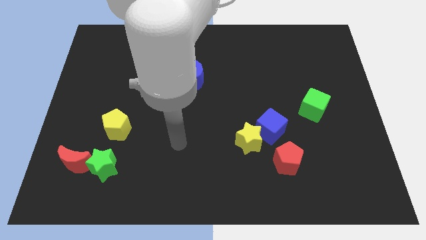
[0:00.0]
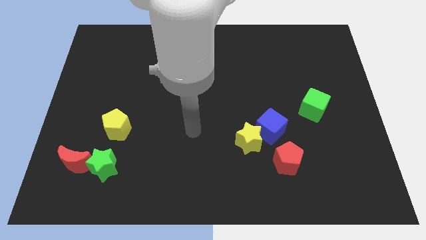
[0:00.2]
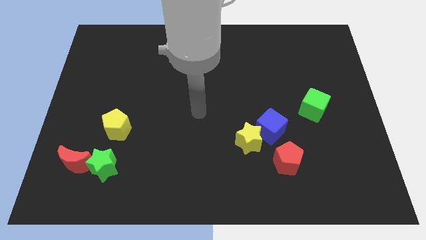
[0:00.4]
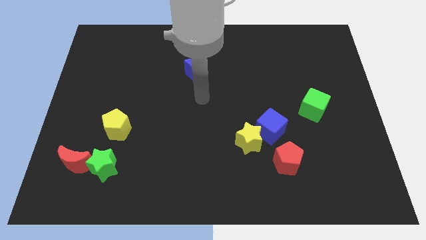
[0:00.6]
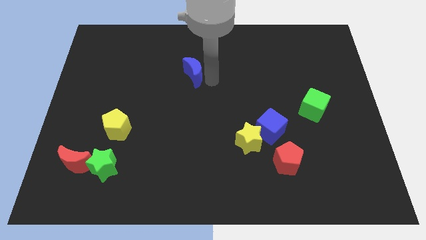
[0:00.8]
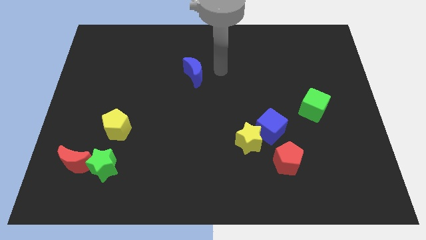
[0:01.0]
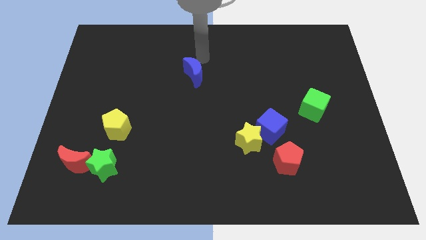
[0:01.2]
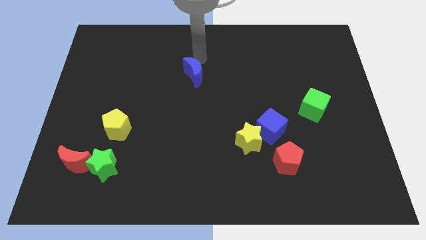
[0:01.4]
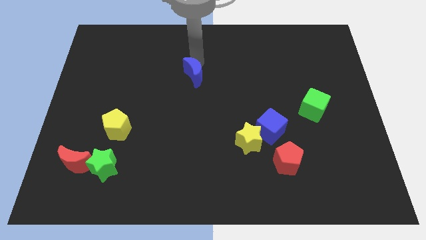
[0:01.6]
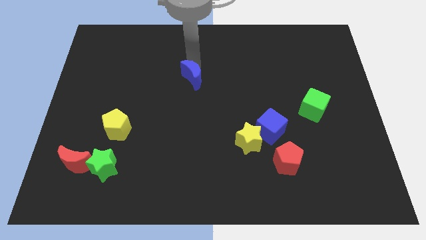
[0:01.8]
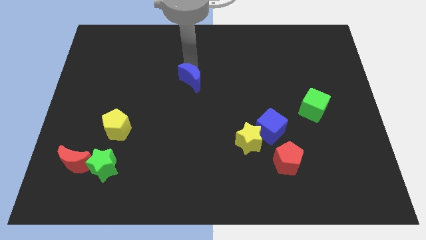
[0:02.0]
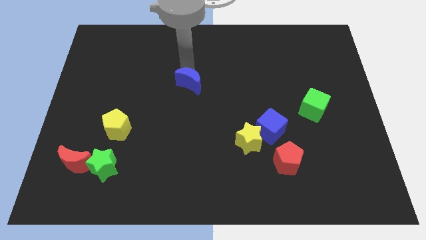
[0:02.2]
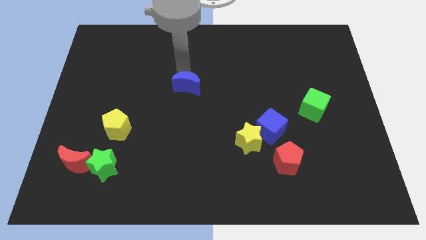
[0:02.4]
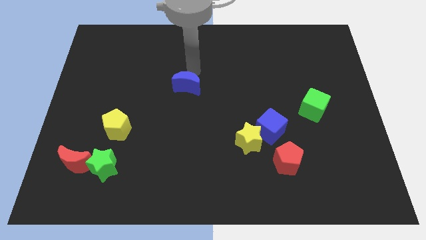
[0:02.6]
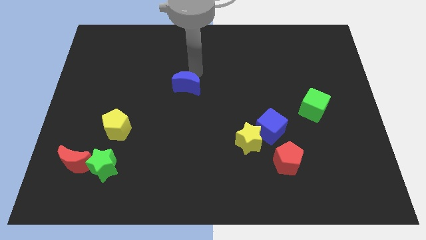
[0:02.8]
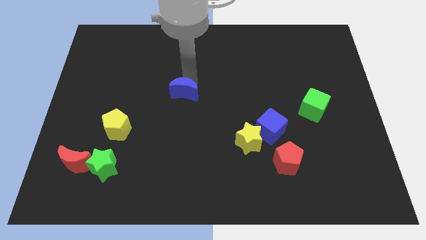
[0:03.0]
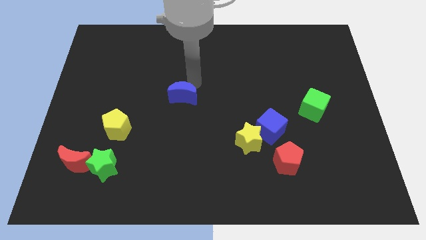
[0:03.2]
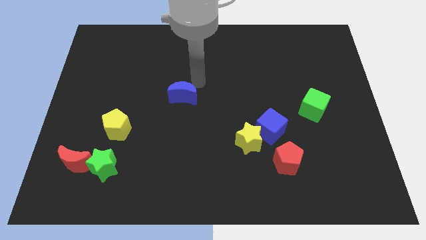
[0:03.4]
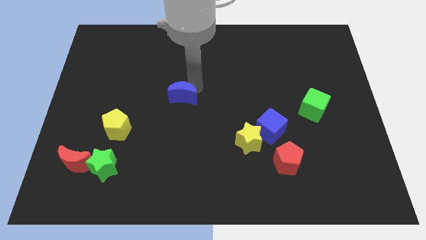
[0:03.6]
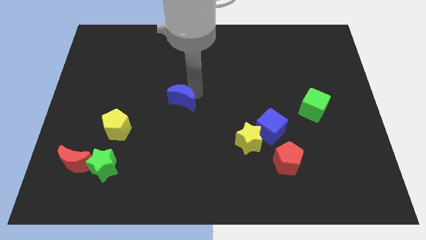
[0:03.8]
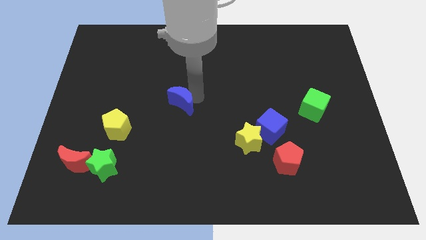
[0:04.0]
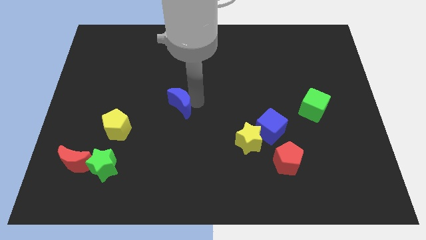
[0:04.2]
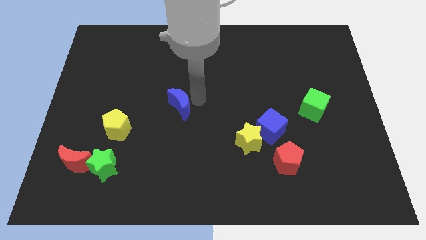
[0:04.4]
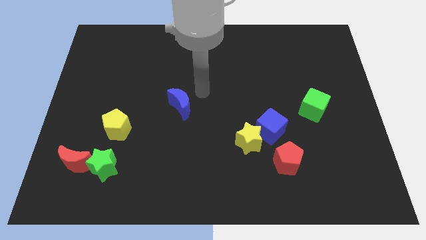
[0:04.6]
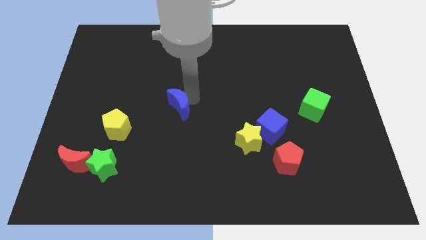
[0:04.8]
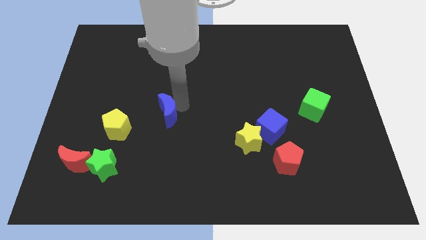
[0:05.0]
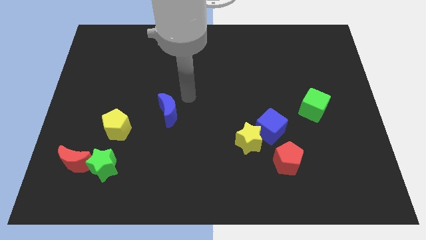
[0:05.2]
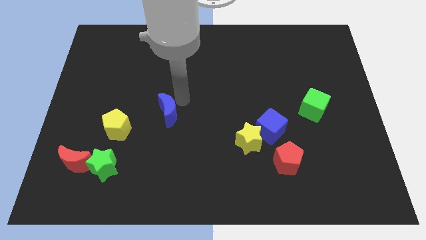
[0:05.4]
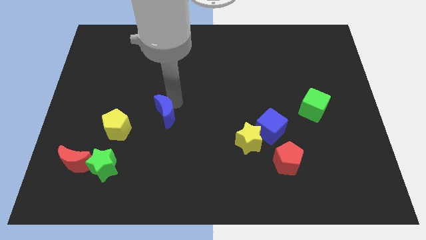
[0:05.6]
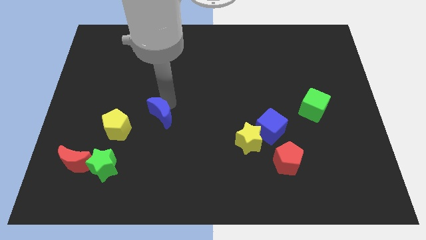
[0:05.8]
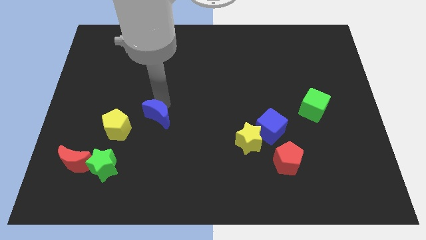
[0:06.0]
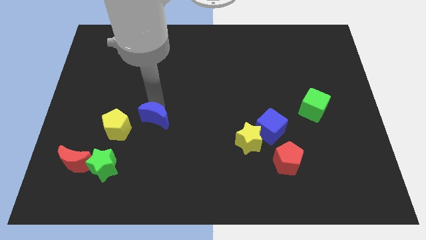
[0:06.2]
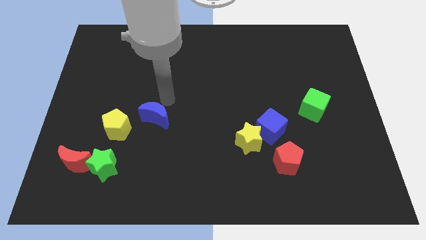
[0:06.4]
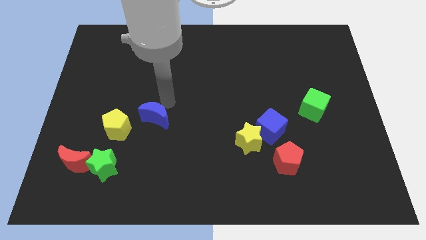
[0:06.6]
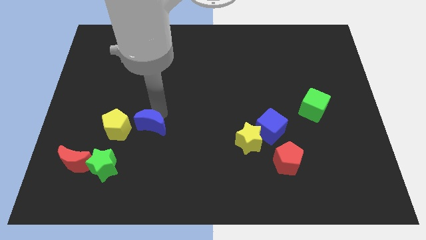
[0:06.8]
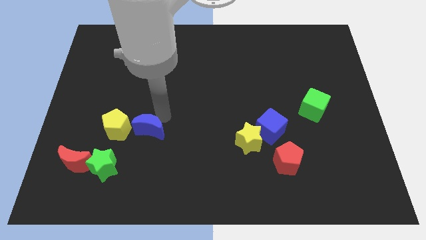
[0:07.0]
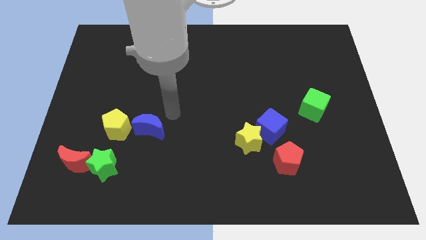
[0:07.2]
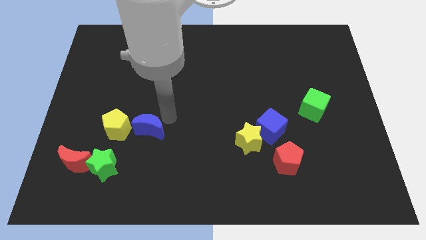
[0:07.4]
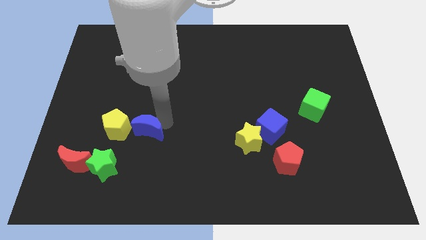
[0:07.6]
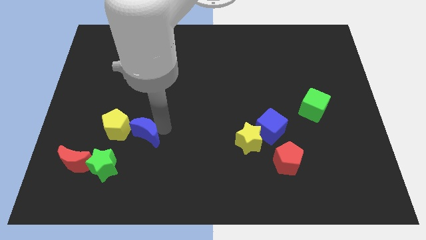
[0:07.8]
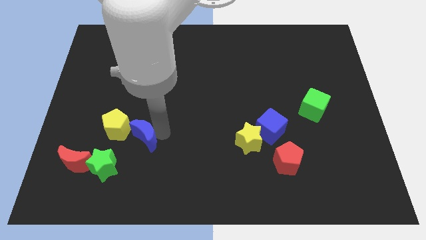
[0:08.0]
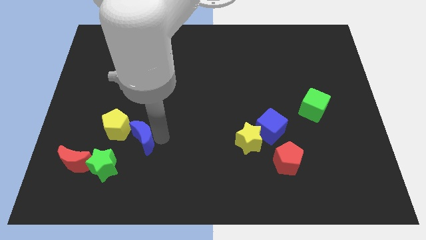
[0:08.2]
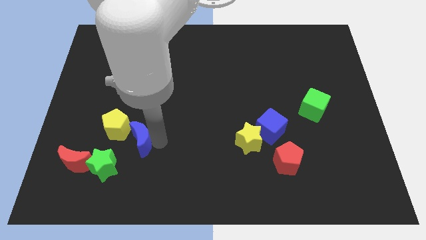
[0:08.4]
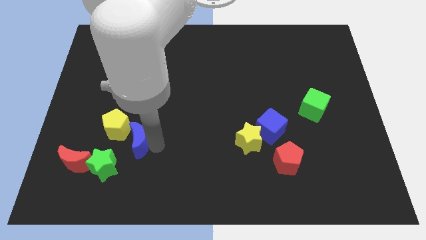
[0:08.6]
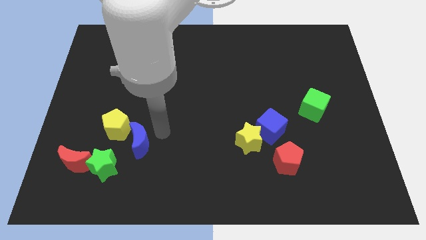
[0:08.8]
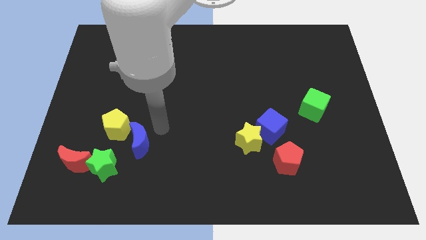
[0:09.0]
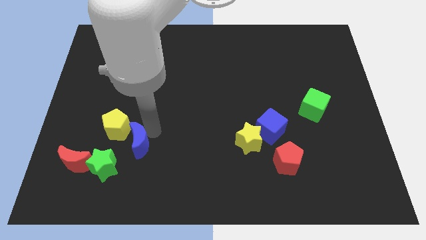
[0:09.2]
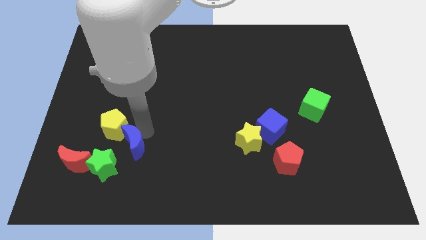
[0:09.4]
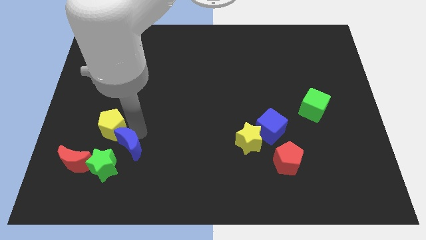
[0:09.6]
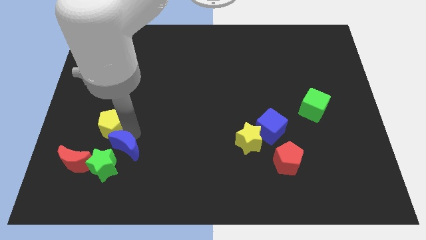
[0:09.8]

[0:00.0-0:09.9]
slide the blue moon next to the green star

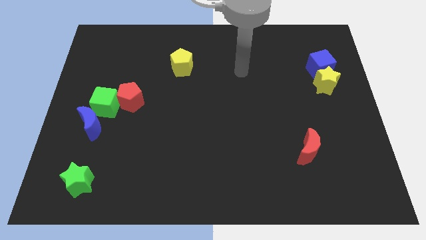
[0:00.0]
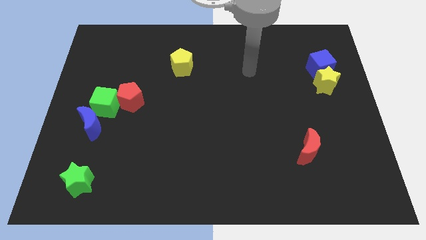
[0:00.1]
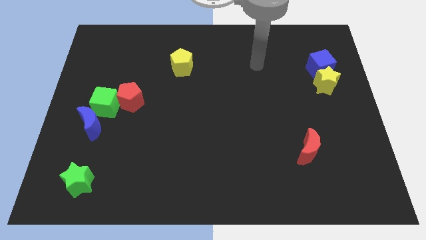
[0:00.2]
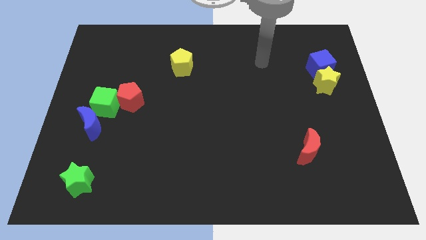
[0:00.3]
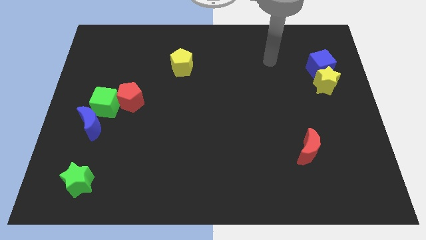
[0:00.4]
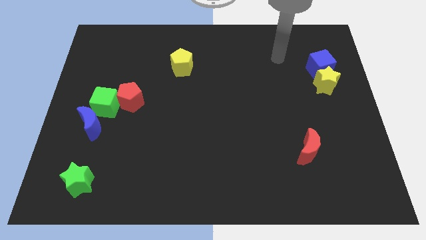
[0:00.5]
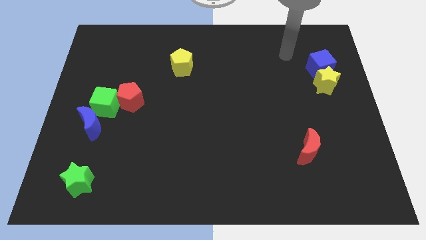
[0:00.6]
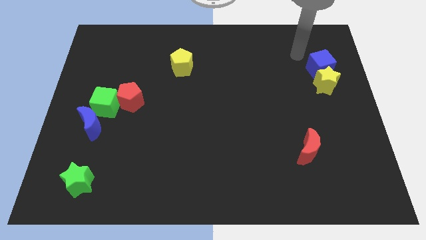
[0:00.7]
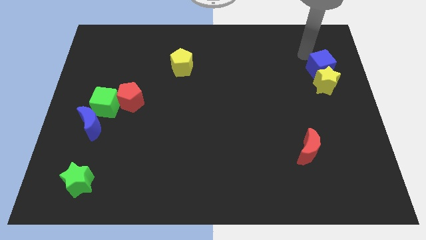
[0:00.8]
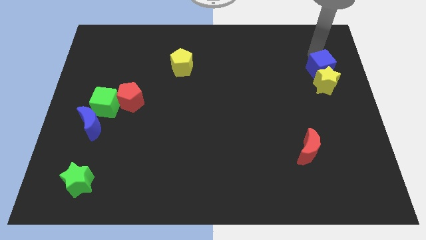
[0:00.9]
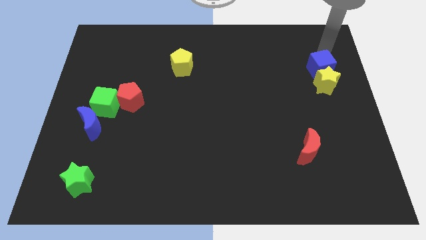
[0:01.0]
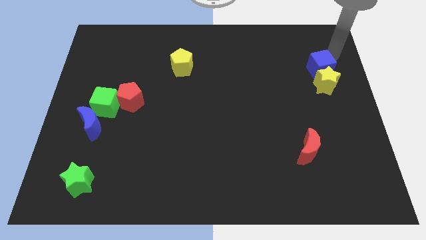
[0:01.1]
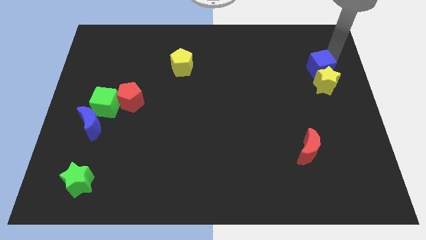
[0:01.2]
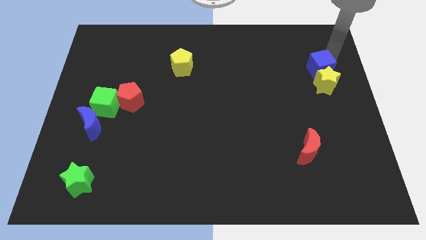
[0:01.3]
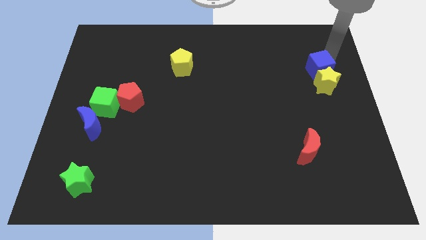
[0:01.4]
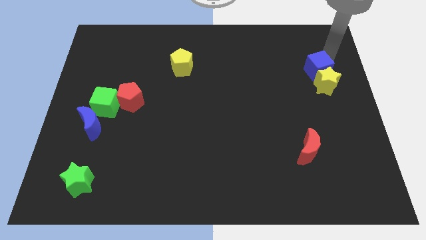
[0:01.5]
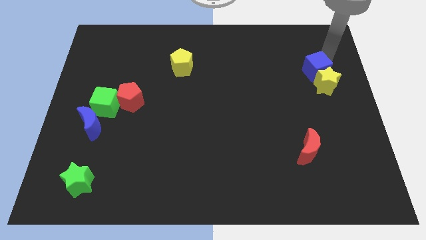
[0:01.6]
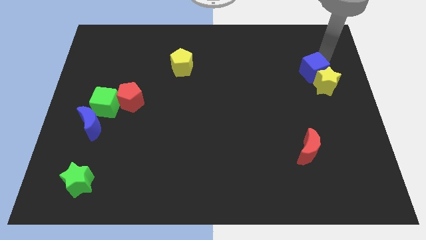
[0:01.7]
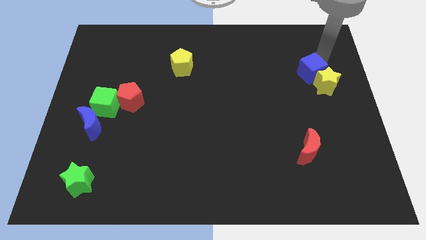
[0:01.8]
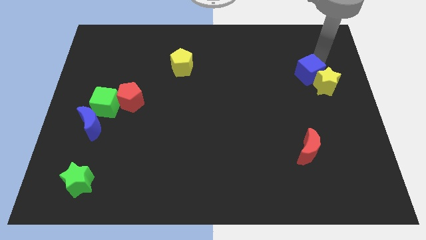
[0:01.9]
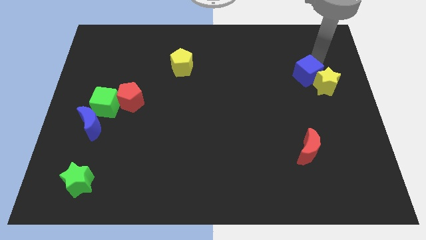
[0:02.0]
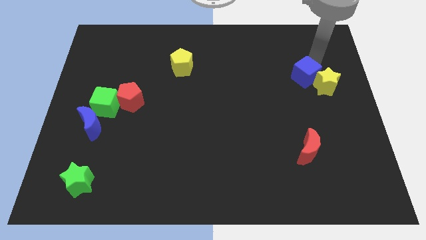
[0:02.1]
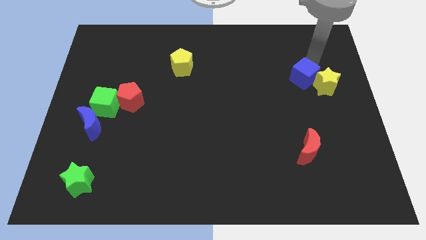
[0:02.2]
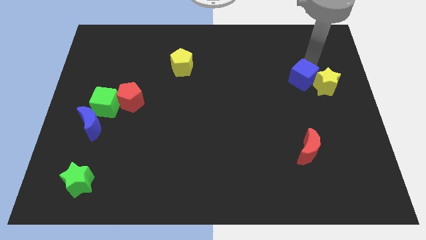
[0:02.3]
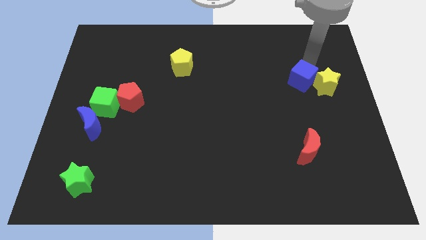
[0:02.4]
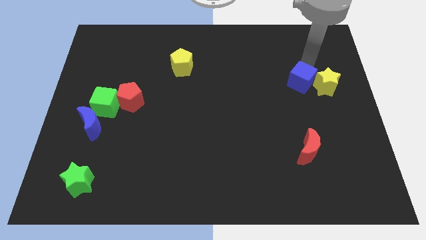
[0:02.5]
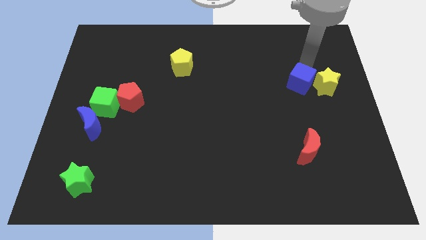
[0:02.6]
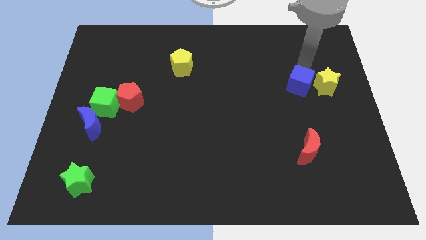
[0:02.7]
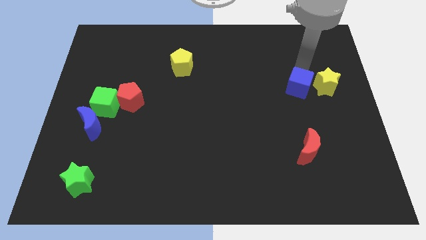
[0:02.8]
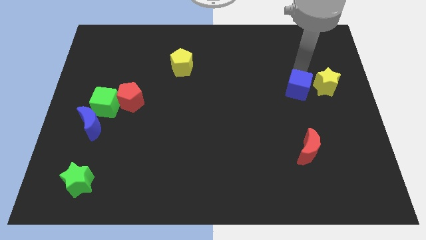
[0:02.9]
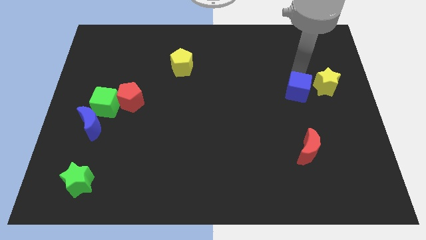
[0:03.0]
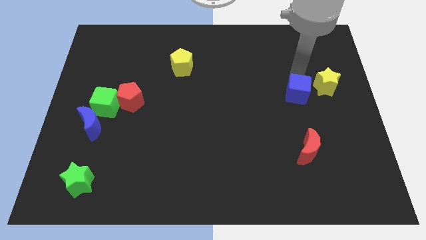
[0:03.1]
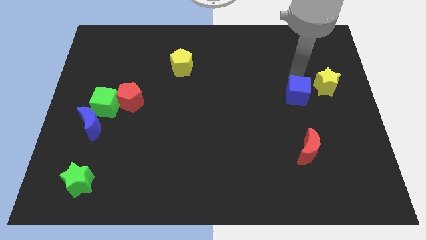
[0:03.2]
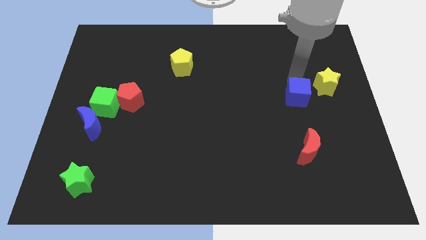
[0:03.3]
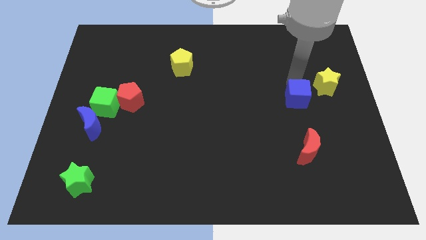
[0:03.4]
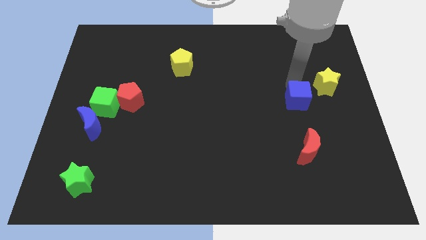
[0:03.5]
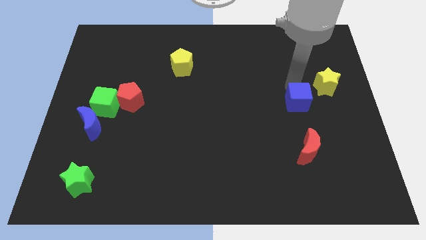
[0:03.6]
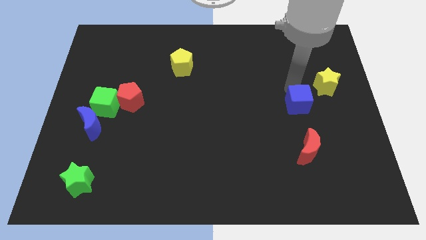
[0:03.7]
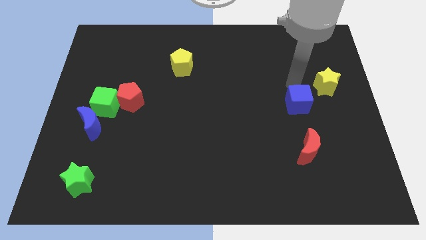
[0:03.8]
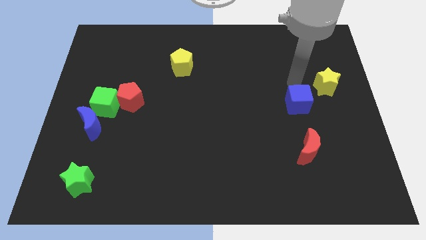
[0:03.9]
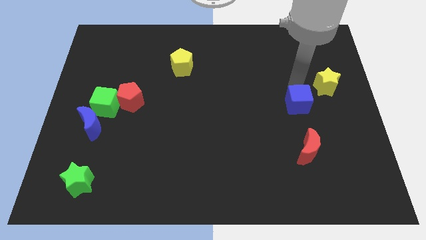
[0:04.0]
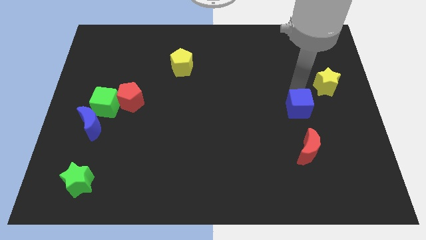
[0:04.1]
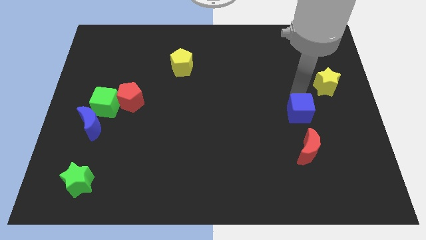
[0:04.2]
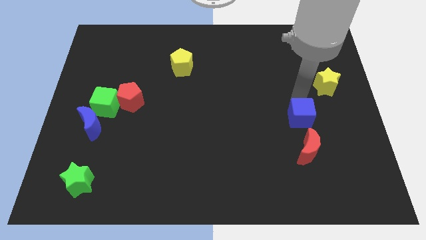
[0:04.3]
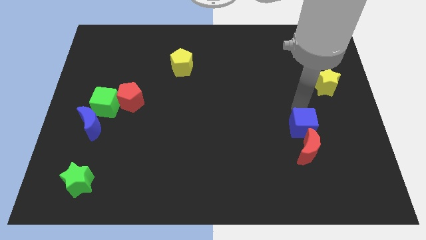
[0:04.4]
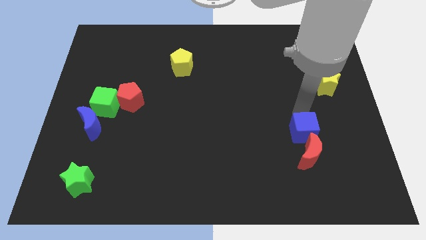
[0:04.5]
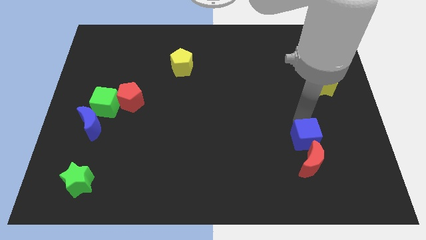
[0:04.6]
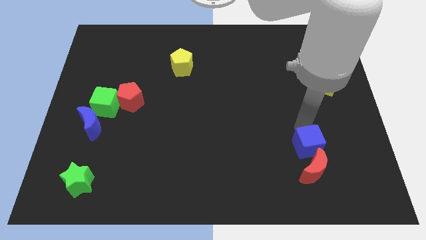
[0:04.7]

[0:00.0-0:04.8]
put the blue cube towards the red moon
